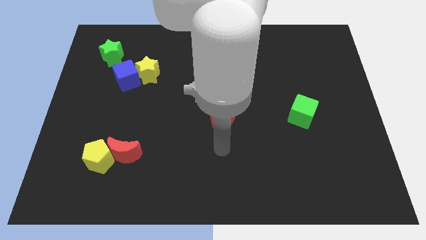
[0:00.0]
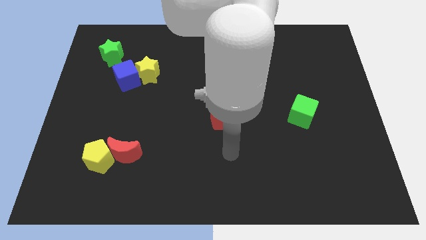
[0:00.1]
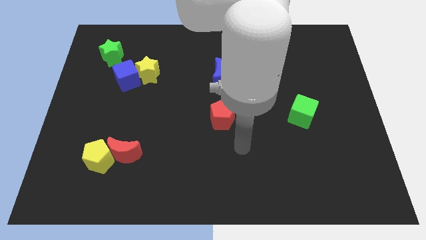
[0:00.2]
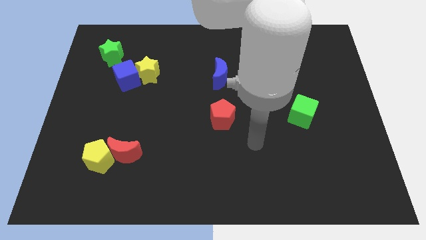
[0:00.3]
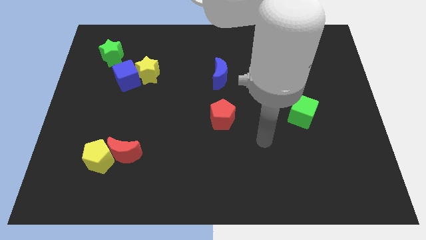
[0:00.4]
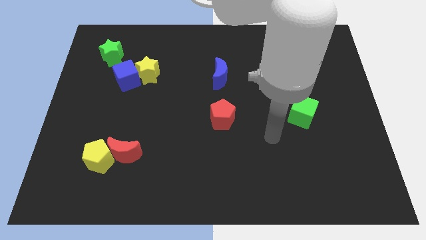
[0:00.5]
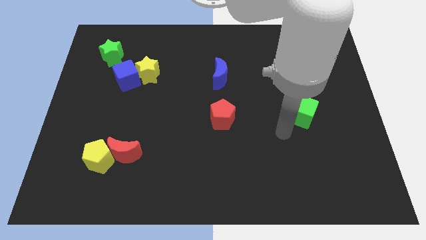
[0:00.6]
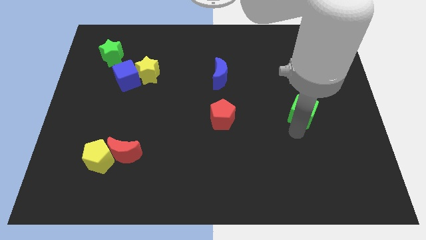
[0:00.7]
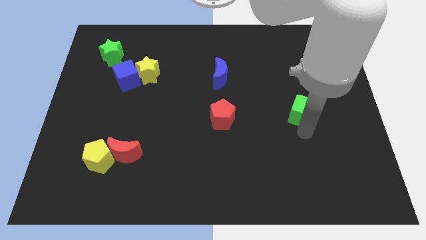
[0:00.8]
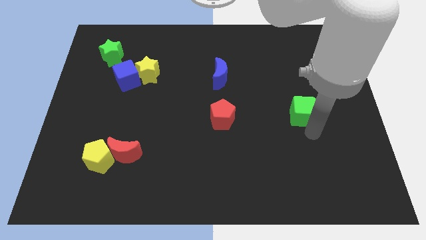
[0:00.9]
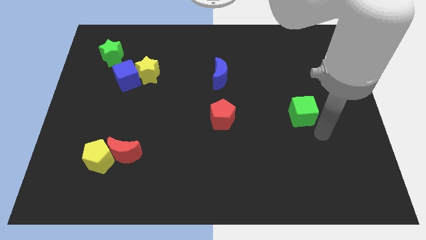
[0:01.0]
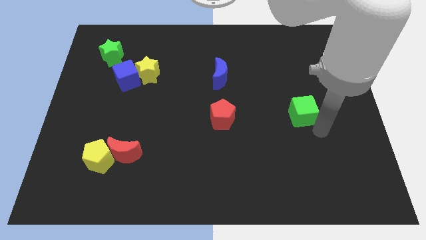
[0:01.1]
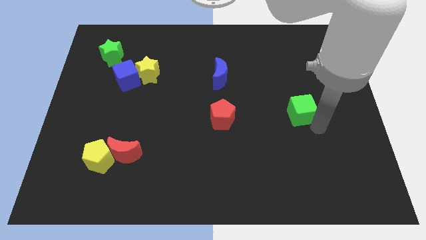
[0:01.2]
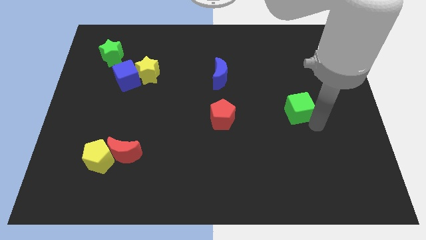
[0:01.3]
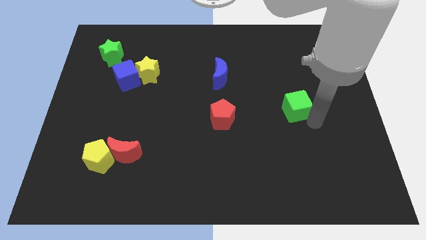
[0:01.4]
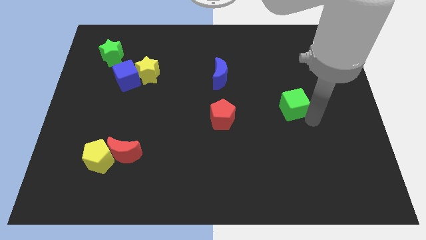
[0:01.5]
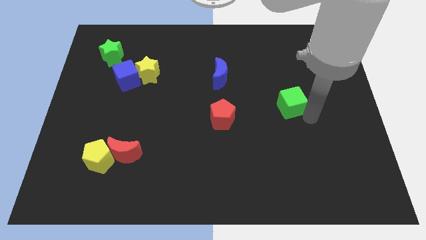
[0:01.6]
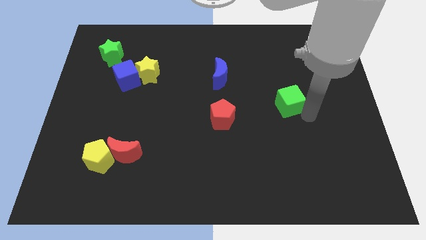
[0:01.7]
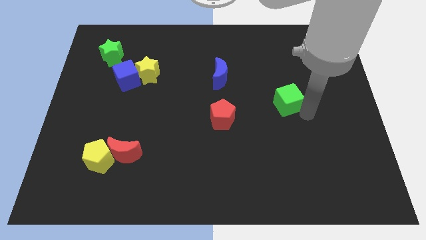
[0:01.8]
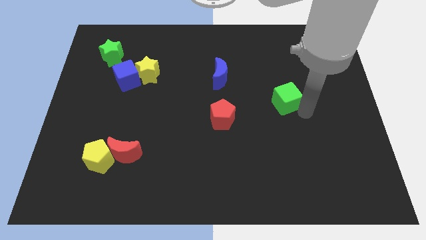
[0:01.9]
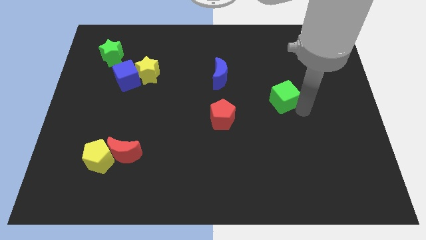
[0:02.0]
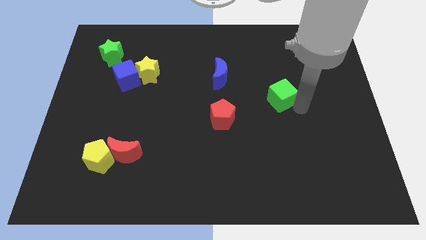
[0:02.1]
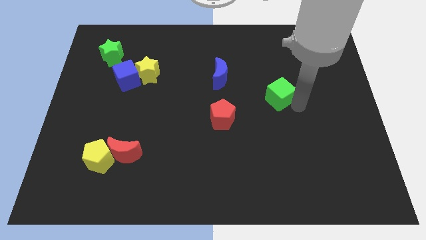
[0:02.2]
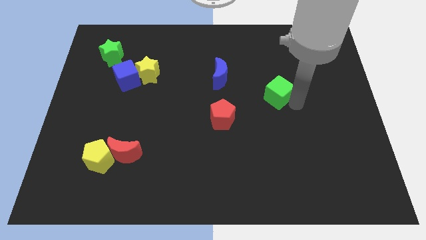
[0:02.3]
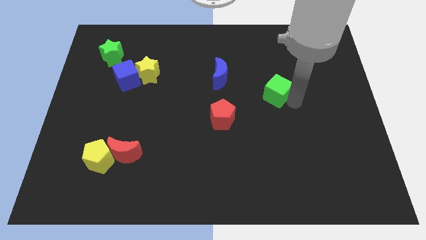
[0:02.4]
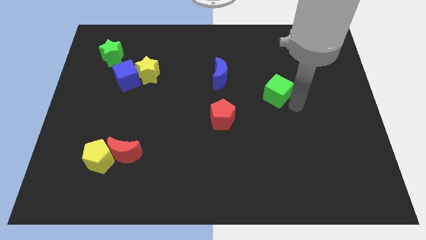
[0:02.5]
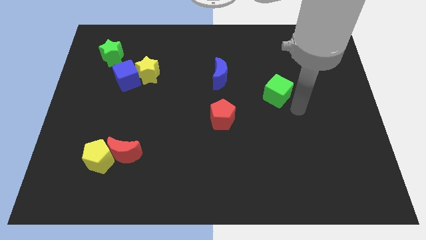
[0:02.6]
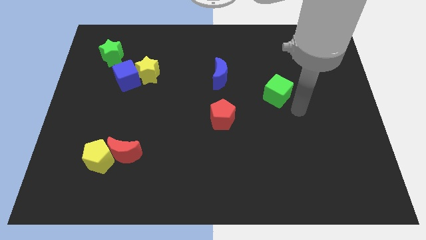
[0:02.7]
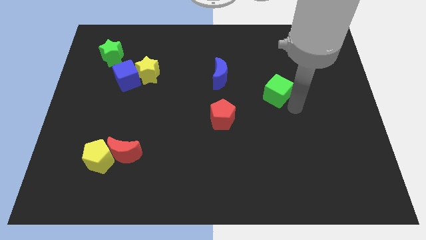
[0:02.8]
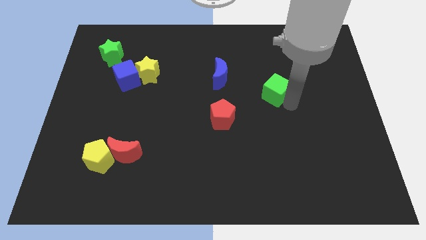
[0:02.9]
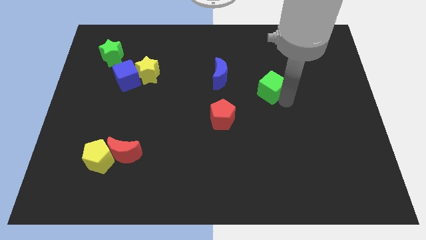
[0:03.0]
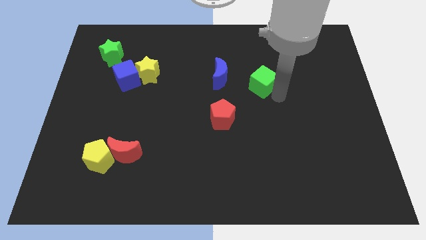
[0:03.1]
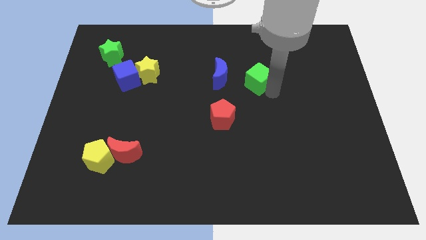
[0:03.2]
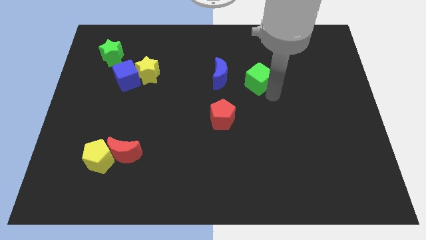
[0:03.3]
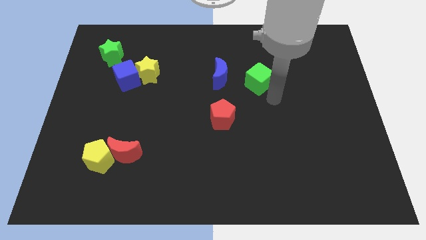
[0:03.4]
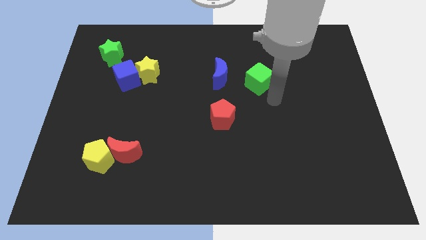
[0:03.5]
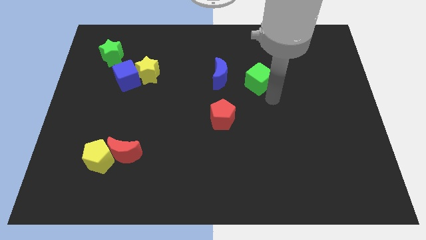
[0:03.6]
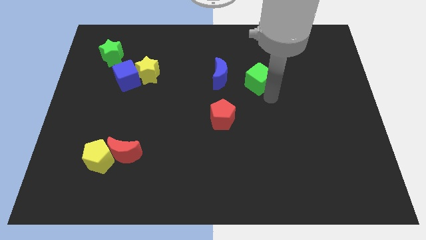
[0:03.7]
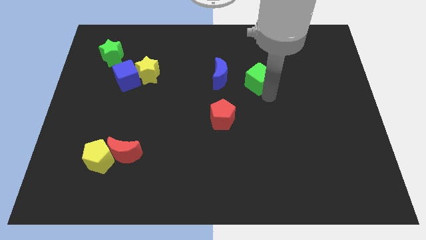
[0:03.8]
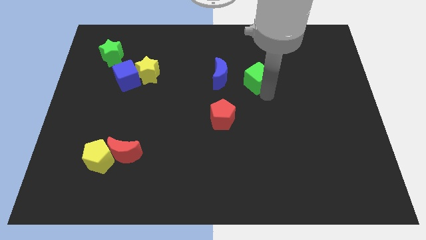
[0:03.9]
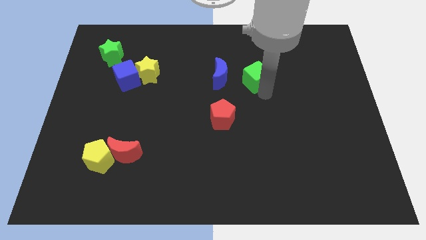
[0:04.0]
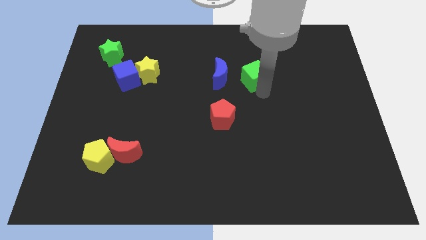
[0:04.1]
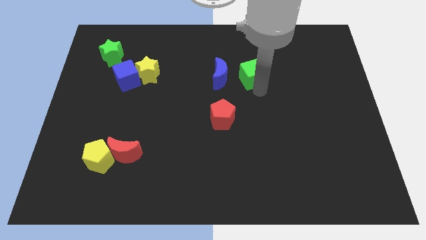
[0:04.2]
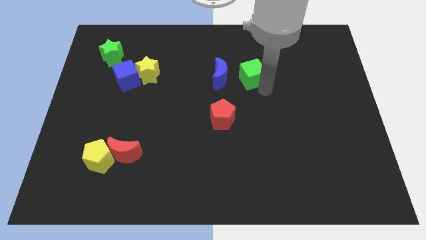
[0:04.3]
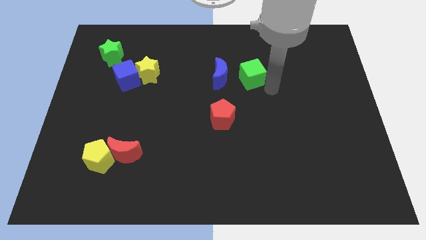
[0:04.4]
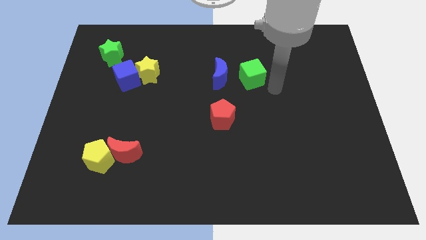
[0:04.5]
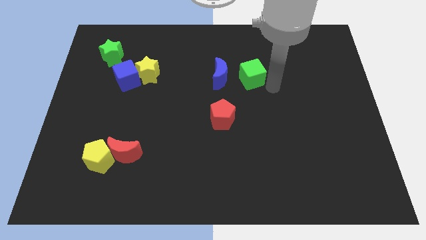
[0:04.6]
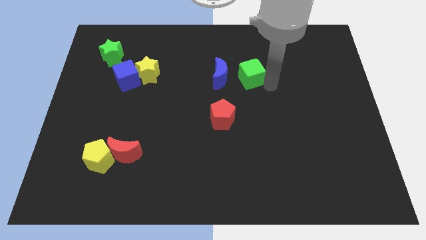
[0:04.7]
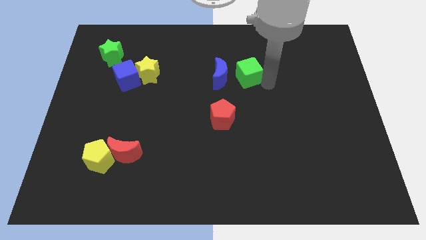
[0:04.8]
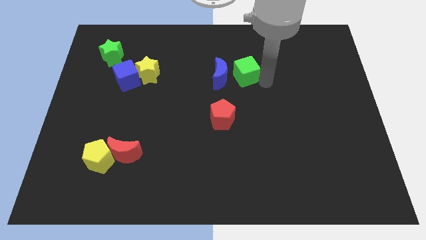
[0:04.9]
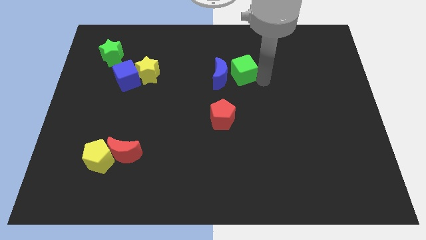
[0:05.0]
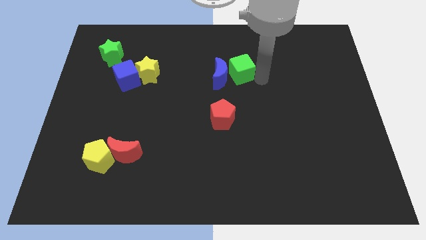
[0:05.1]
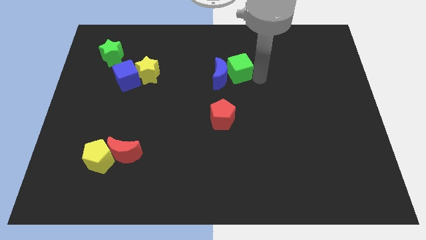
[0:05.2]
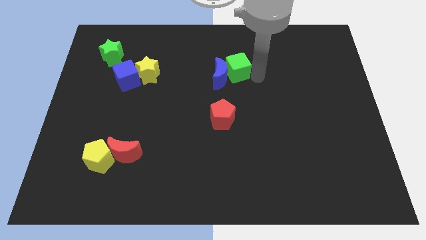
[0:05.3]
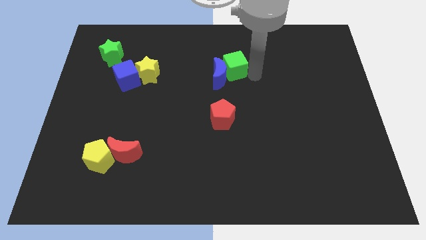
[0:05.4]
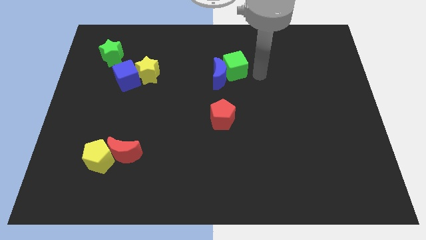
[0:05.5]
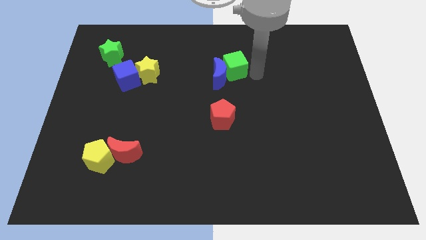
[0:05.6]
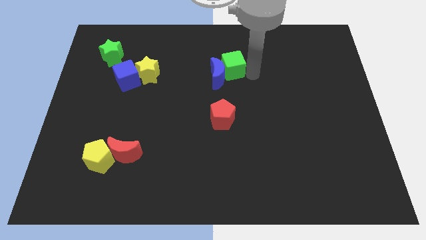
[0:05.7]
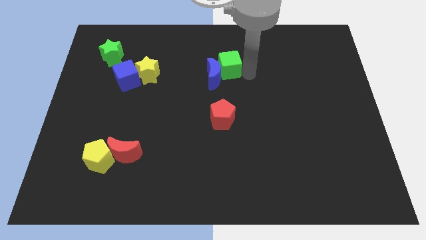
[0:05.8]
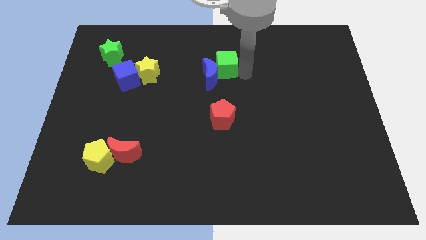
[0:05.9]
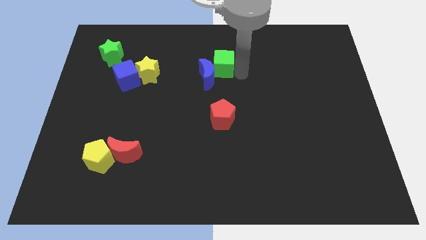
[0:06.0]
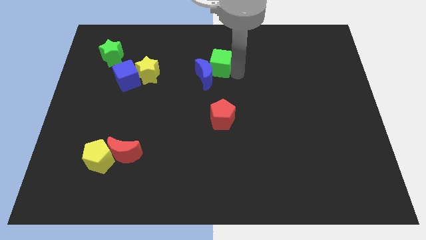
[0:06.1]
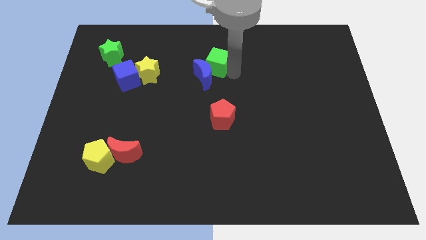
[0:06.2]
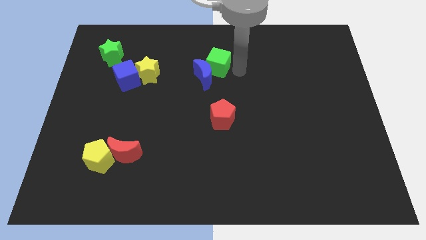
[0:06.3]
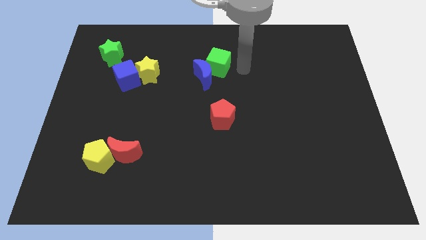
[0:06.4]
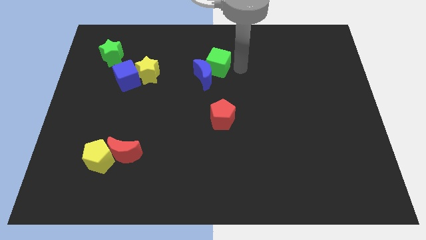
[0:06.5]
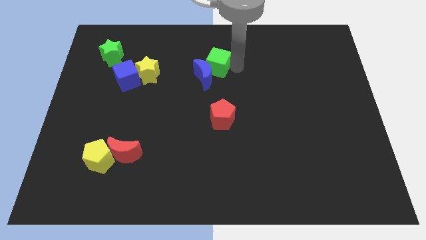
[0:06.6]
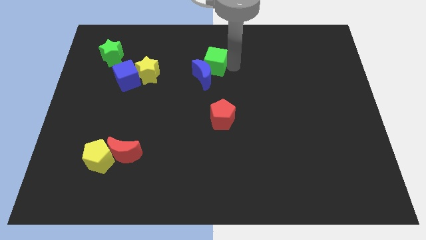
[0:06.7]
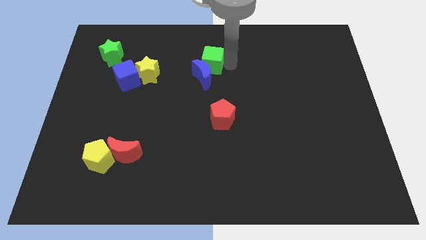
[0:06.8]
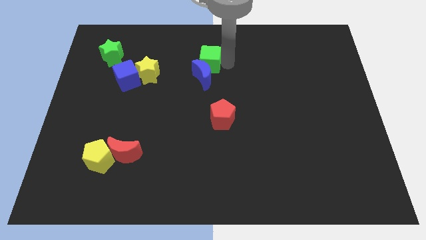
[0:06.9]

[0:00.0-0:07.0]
push the green cube to the top left of the blue moon
